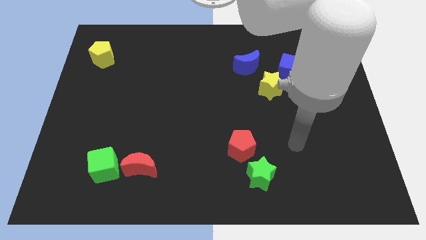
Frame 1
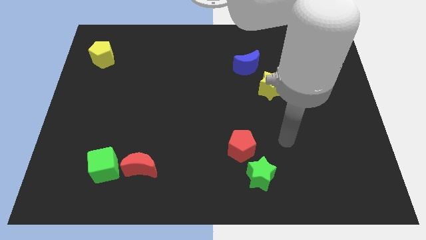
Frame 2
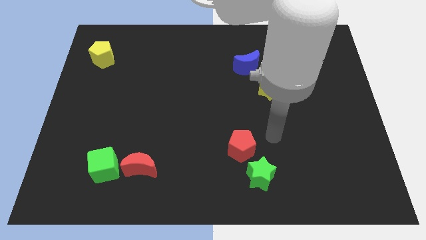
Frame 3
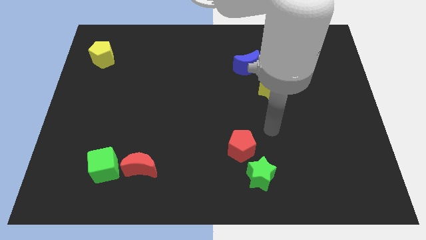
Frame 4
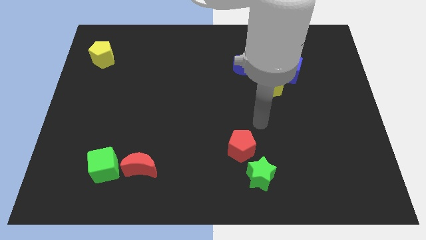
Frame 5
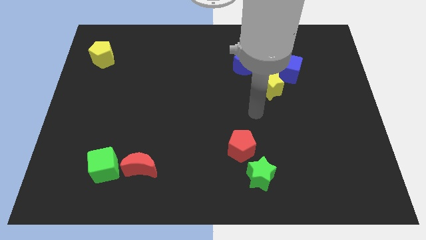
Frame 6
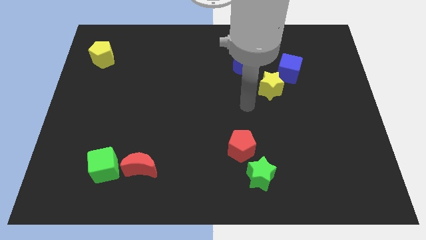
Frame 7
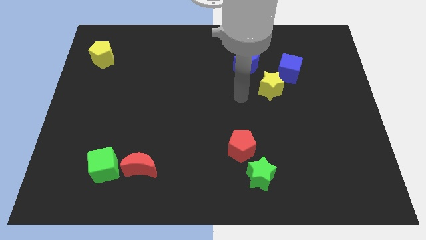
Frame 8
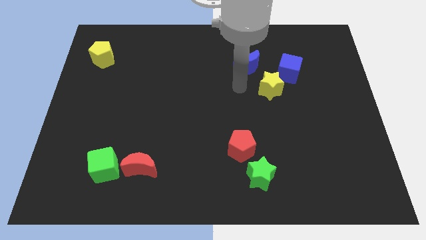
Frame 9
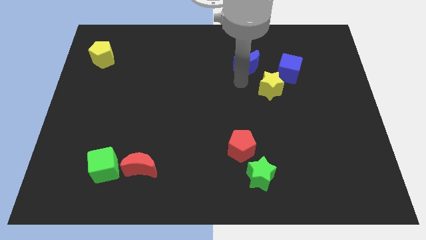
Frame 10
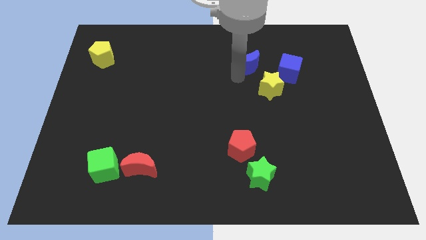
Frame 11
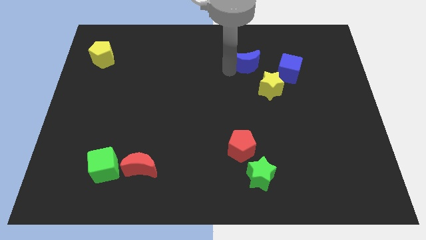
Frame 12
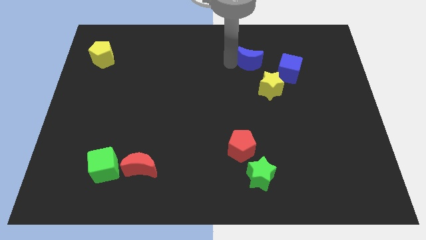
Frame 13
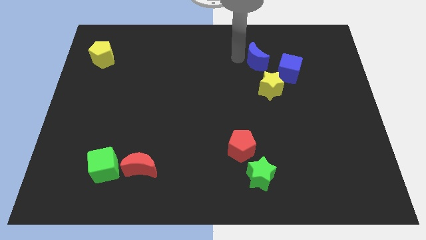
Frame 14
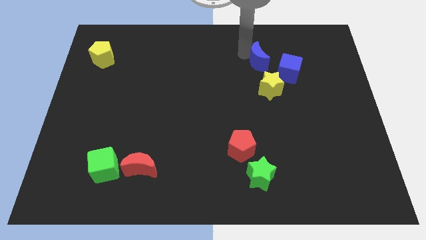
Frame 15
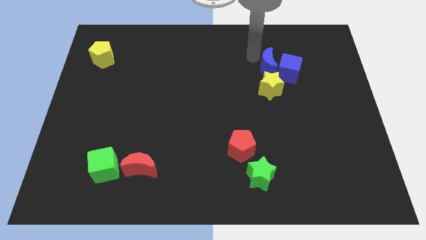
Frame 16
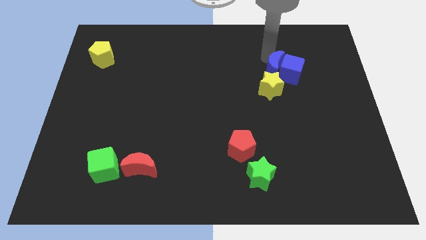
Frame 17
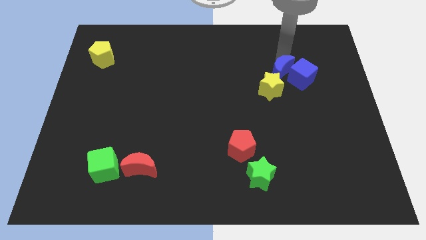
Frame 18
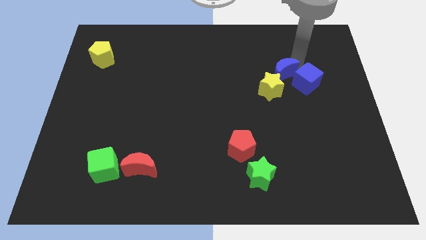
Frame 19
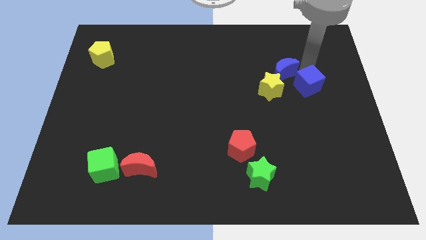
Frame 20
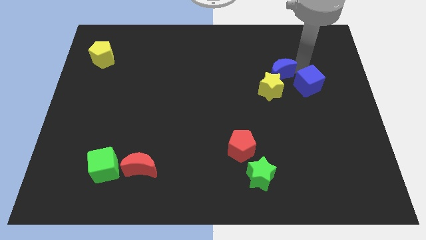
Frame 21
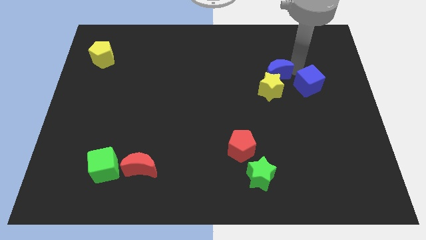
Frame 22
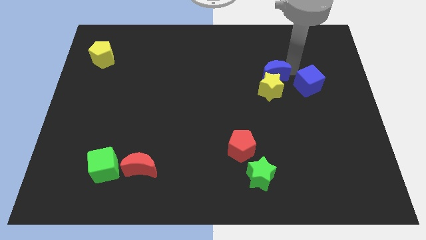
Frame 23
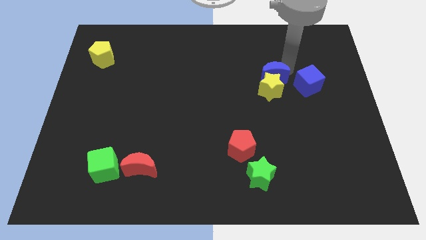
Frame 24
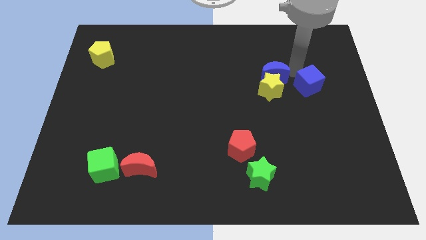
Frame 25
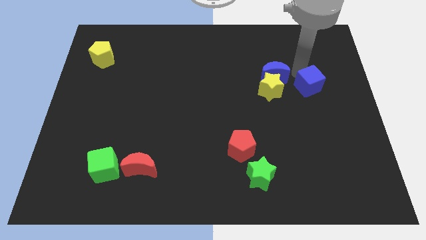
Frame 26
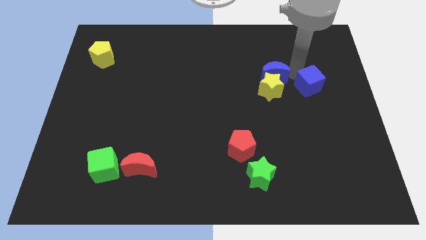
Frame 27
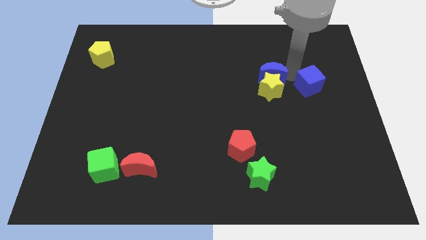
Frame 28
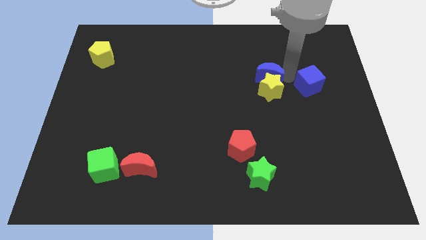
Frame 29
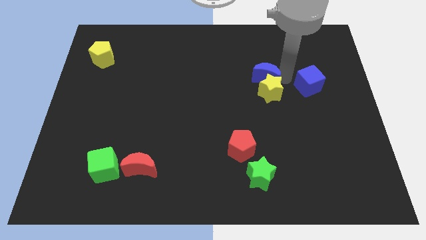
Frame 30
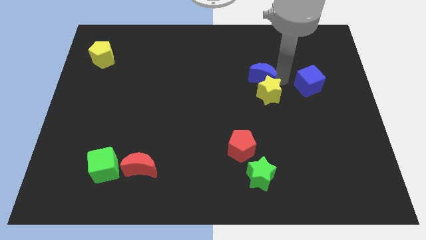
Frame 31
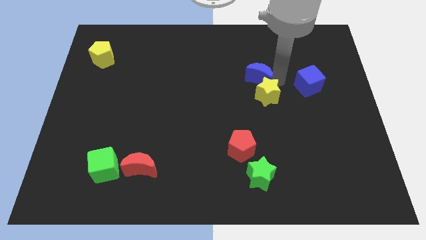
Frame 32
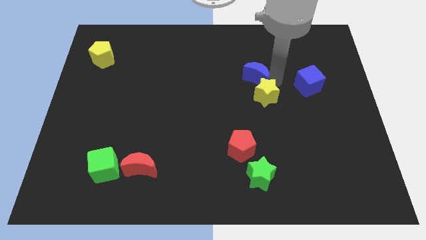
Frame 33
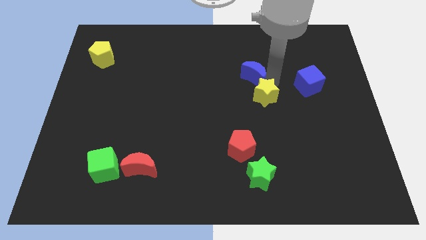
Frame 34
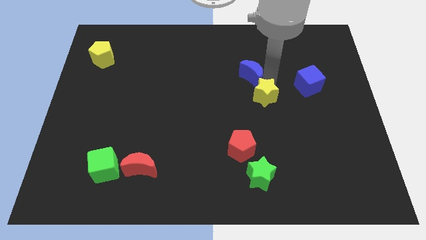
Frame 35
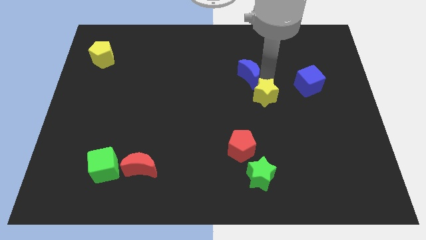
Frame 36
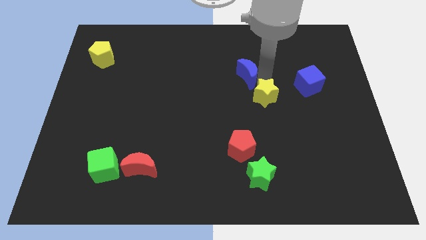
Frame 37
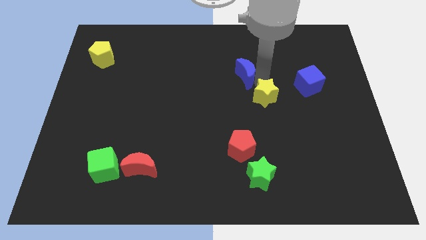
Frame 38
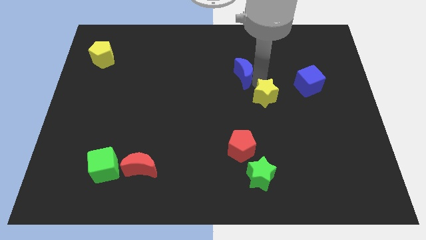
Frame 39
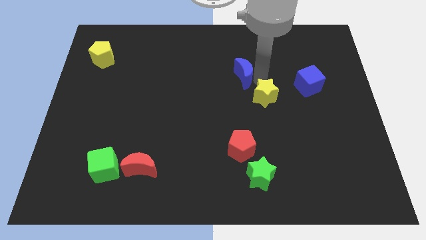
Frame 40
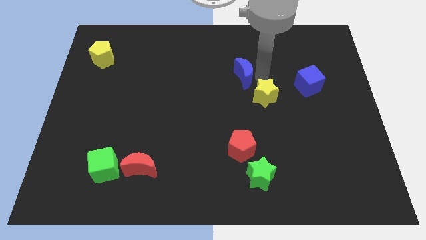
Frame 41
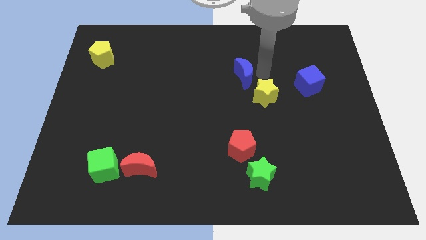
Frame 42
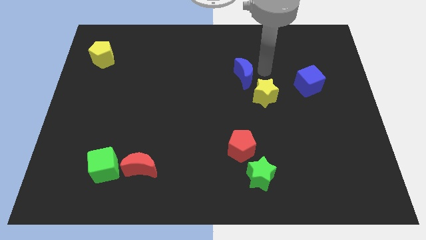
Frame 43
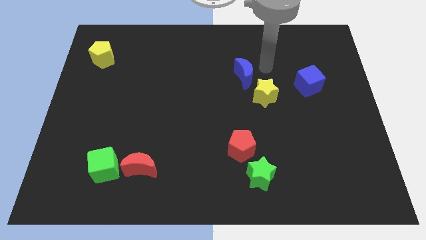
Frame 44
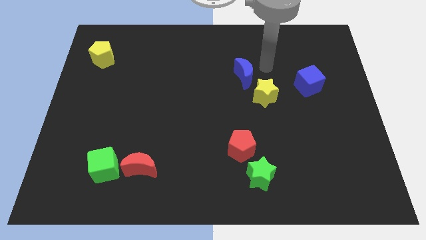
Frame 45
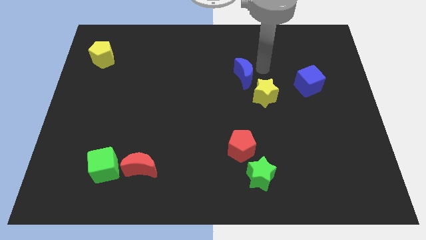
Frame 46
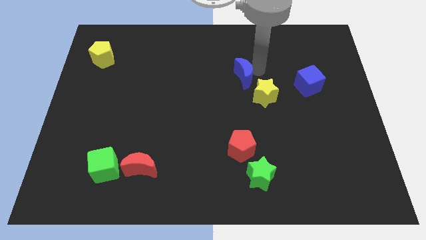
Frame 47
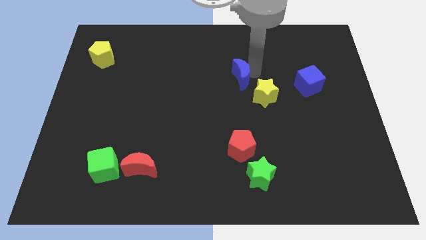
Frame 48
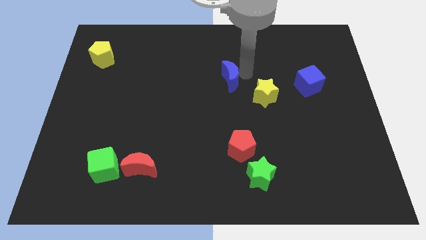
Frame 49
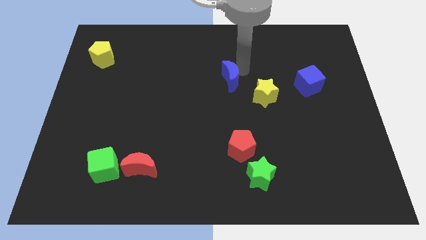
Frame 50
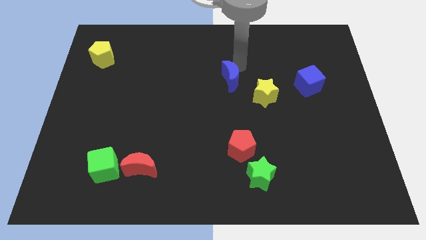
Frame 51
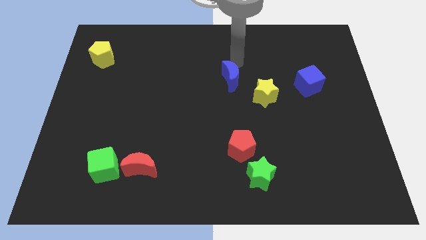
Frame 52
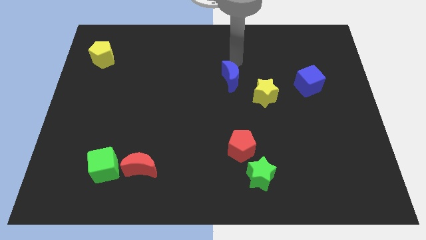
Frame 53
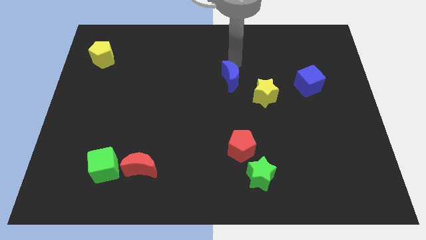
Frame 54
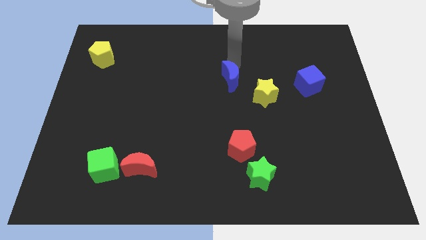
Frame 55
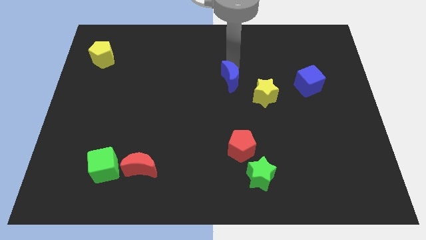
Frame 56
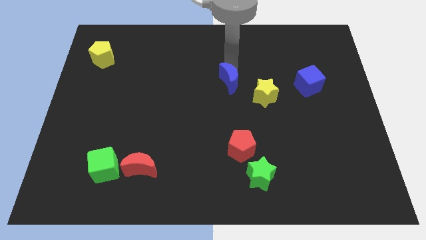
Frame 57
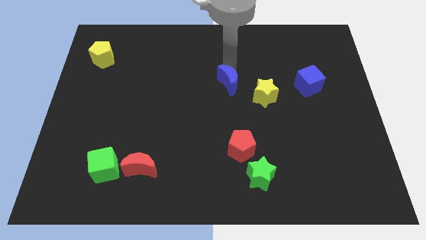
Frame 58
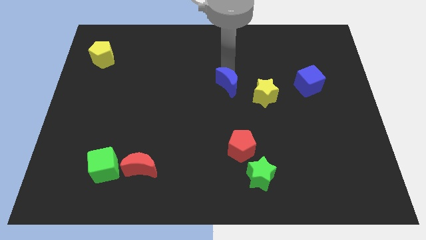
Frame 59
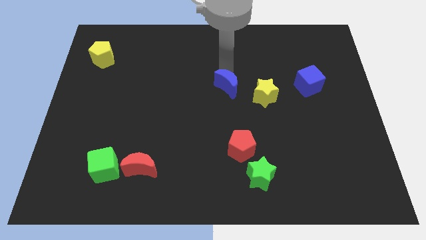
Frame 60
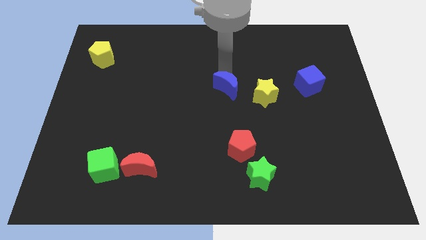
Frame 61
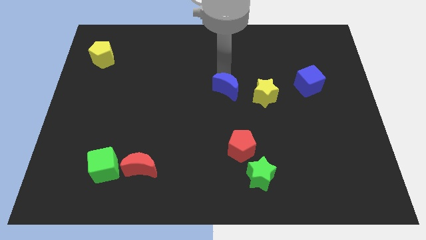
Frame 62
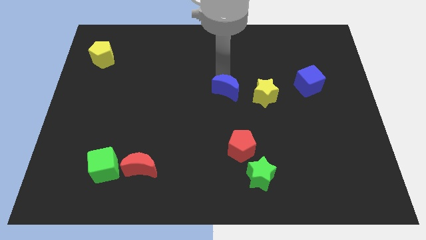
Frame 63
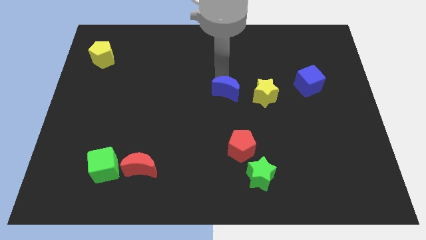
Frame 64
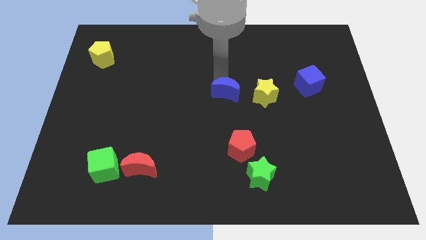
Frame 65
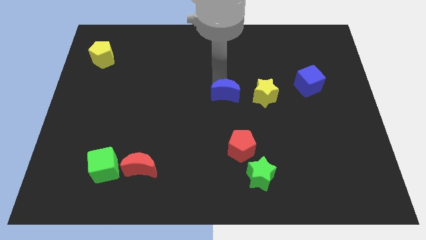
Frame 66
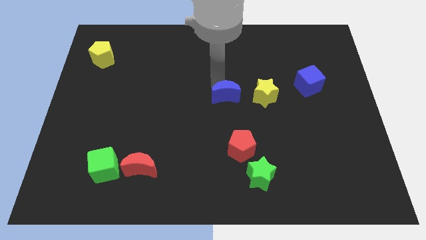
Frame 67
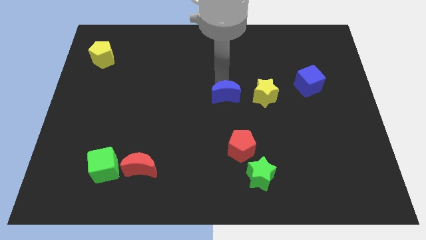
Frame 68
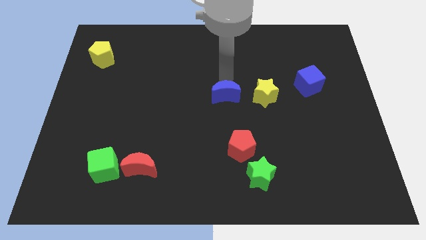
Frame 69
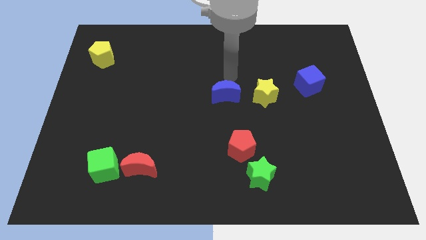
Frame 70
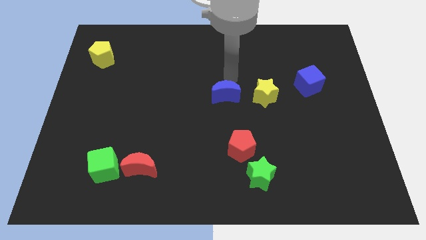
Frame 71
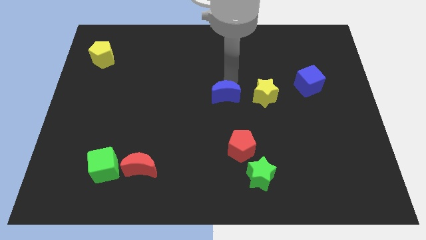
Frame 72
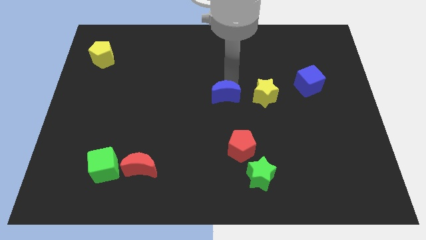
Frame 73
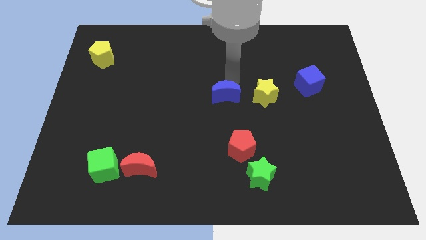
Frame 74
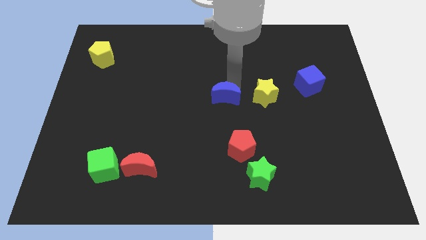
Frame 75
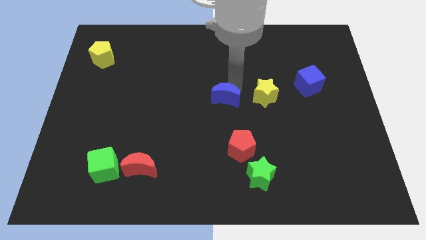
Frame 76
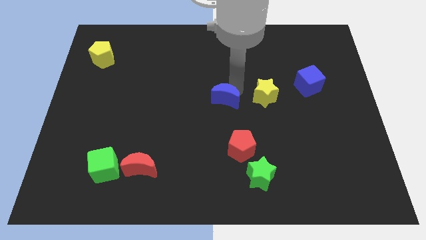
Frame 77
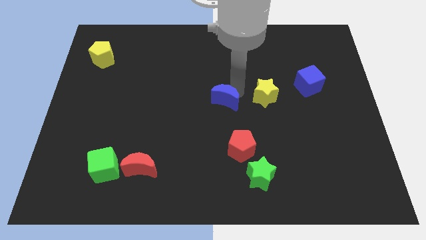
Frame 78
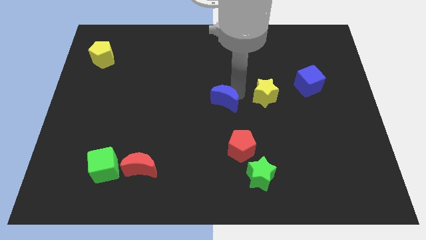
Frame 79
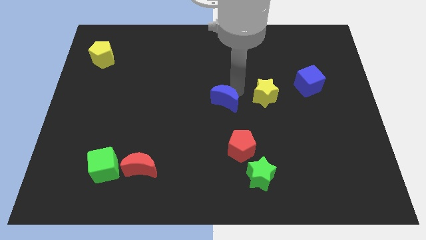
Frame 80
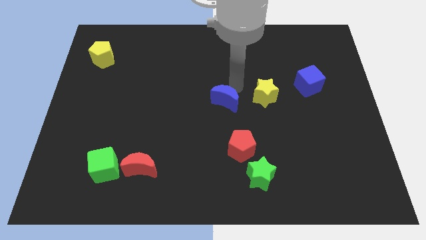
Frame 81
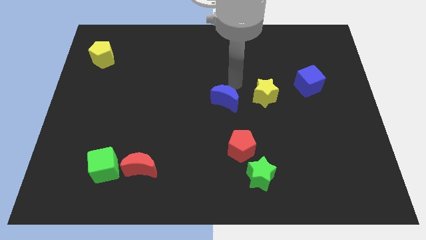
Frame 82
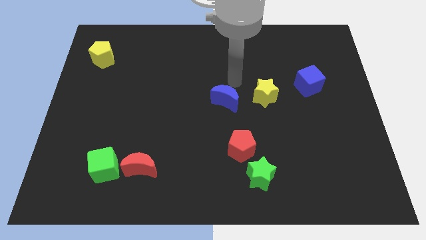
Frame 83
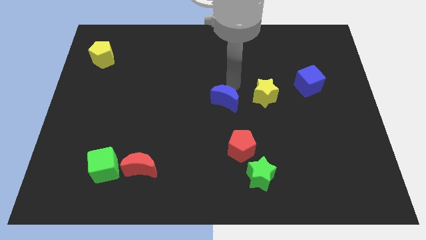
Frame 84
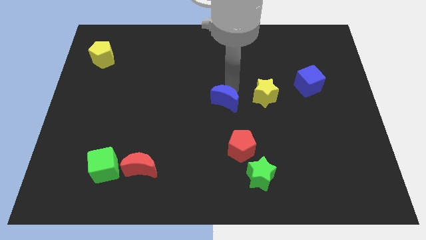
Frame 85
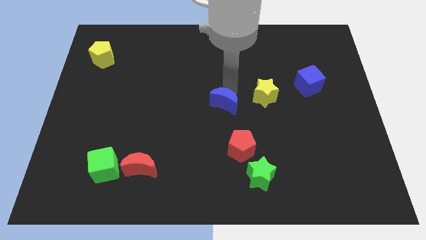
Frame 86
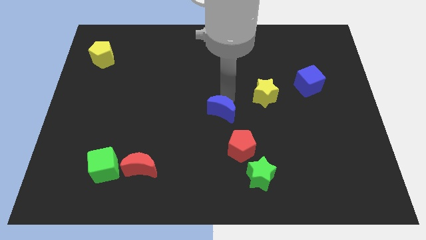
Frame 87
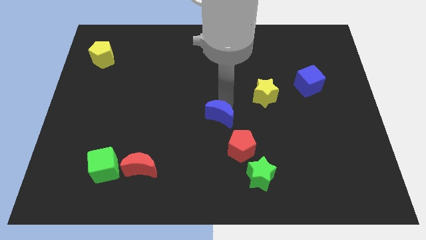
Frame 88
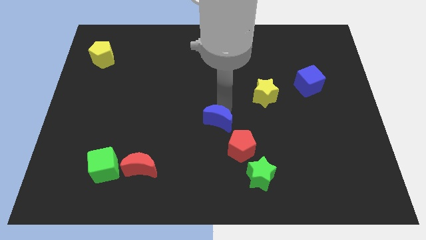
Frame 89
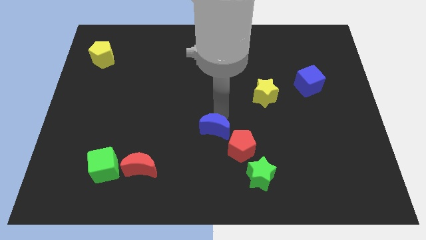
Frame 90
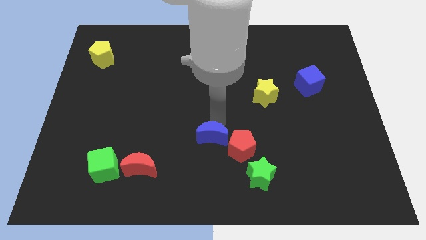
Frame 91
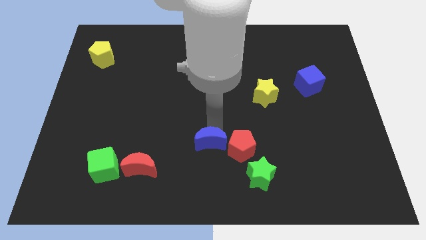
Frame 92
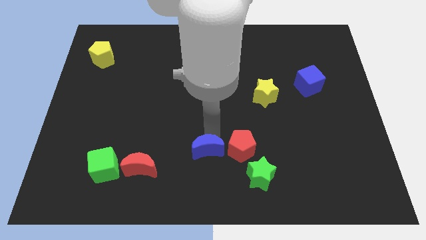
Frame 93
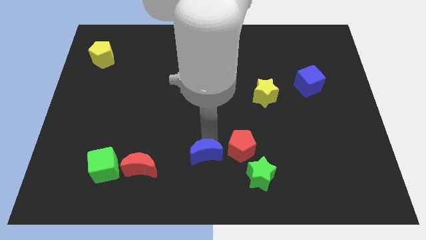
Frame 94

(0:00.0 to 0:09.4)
slide the blue moon to the bottom
